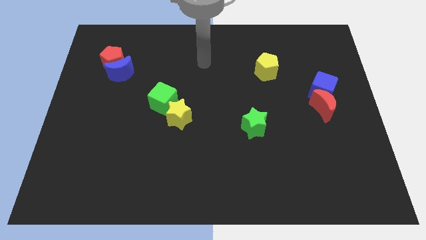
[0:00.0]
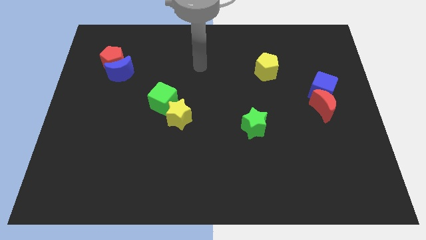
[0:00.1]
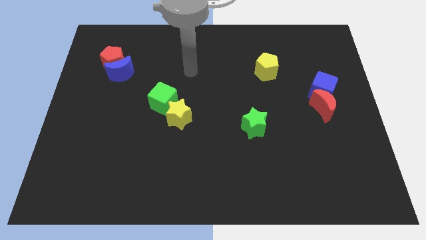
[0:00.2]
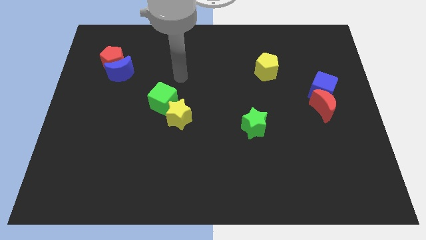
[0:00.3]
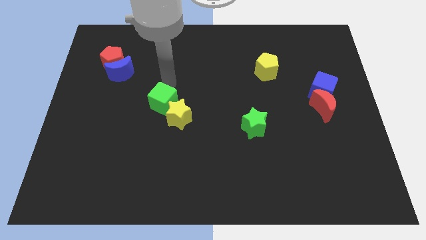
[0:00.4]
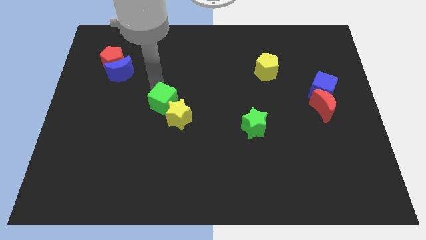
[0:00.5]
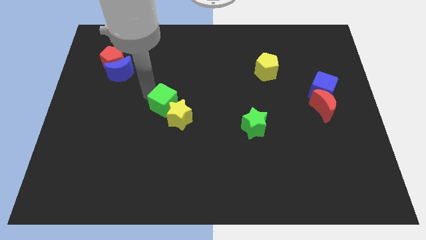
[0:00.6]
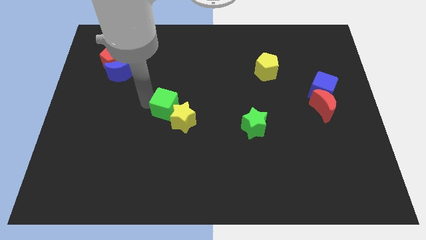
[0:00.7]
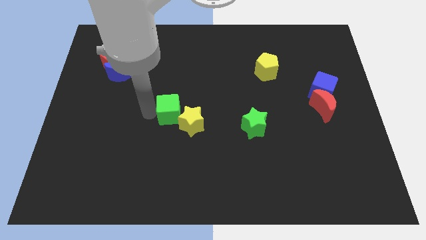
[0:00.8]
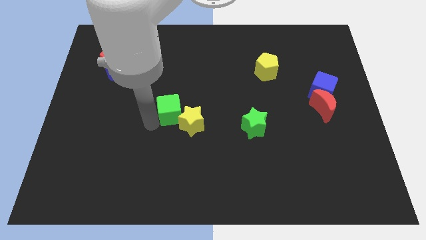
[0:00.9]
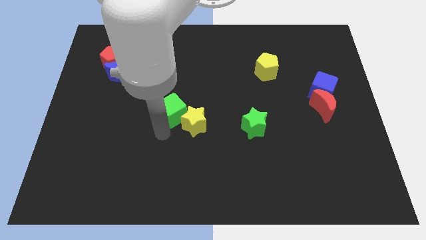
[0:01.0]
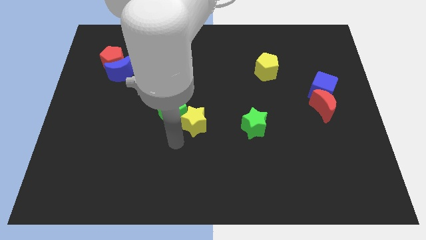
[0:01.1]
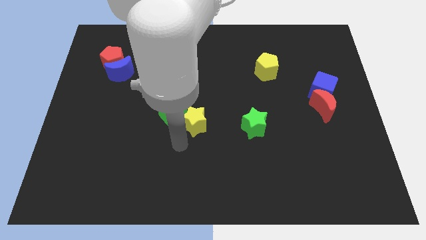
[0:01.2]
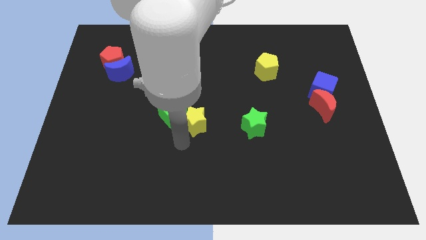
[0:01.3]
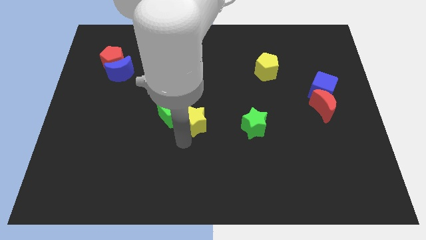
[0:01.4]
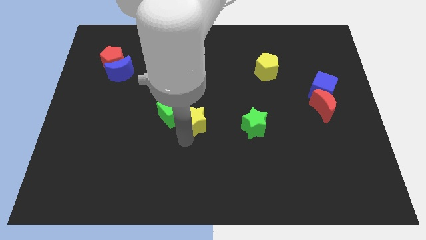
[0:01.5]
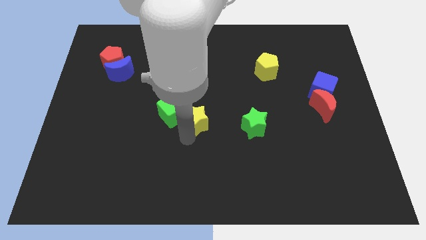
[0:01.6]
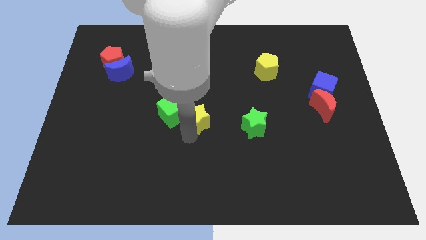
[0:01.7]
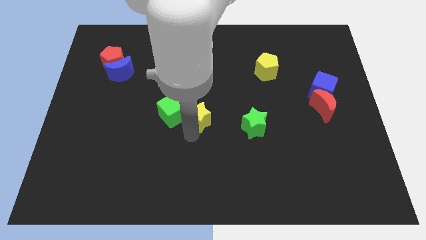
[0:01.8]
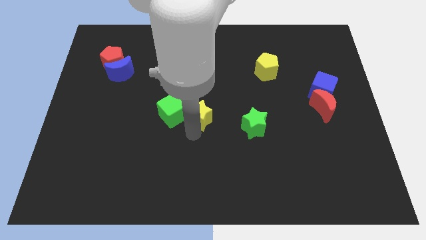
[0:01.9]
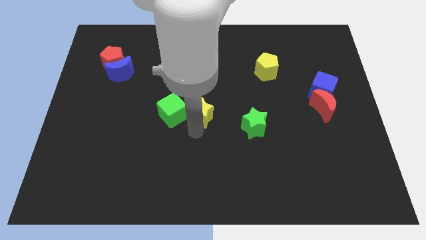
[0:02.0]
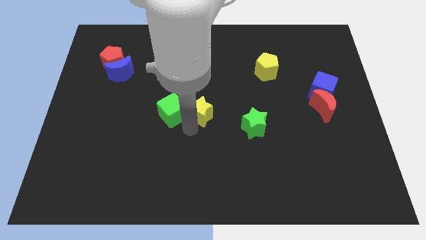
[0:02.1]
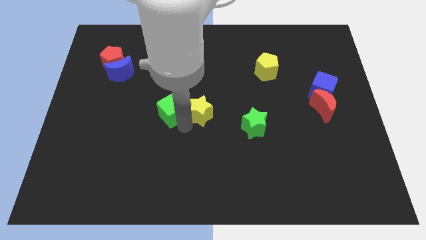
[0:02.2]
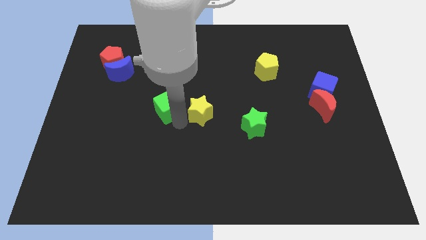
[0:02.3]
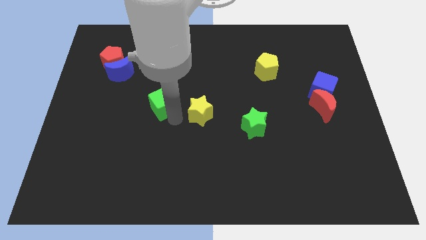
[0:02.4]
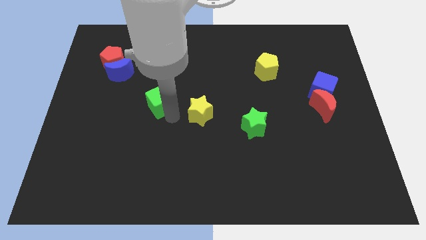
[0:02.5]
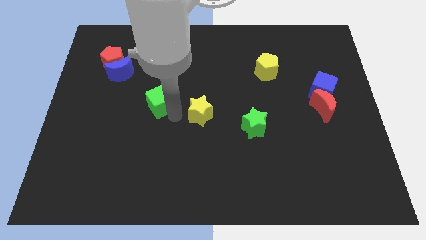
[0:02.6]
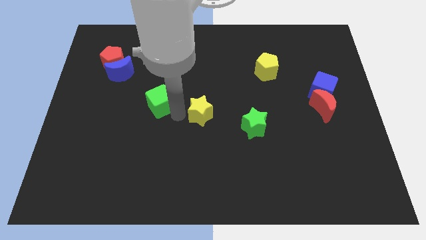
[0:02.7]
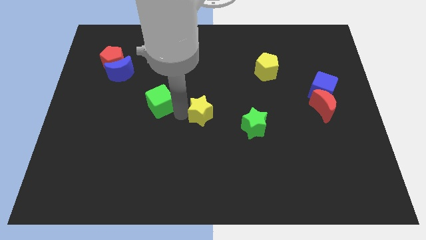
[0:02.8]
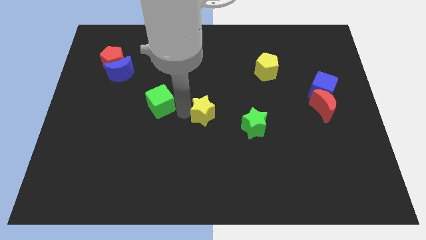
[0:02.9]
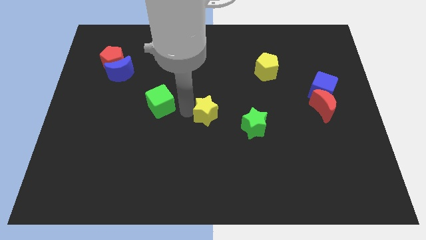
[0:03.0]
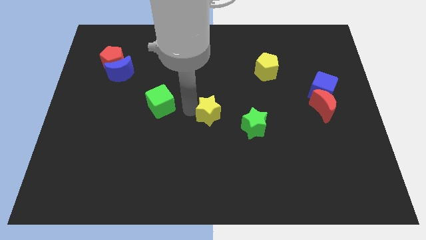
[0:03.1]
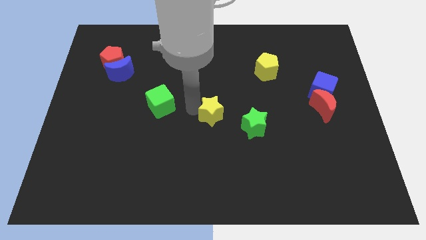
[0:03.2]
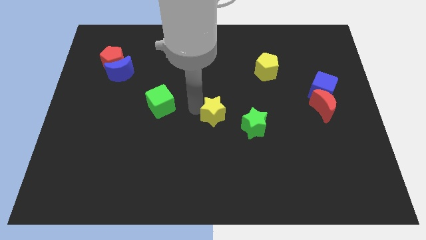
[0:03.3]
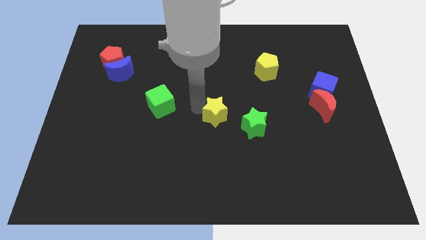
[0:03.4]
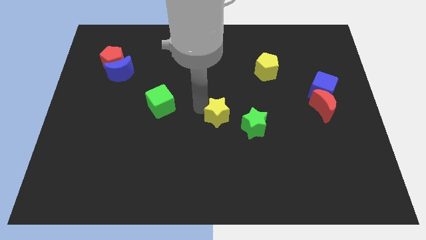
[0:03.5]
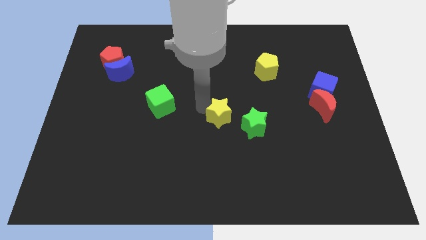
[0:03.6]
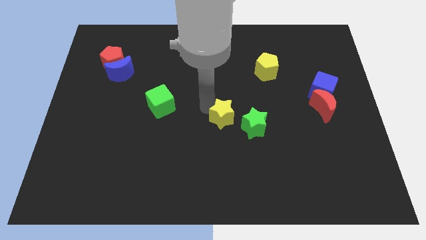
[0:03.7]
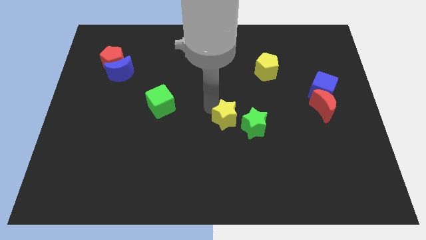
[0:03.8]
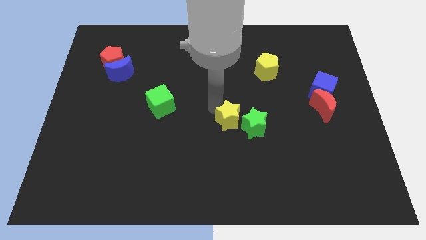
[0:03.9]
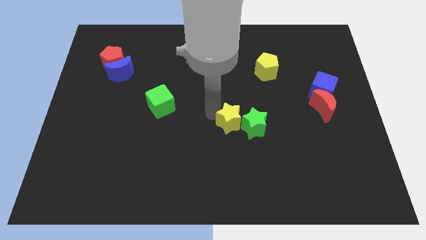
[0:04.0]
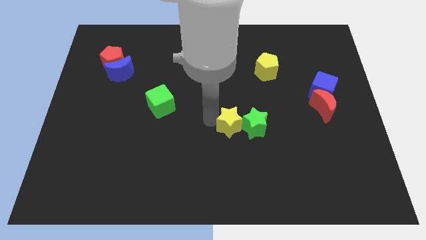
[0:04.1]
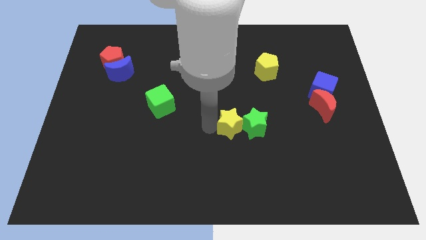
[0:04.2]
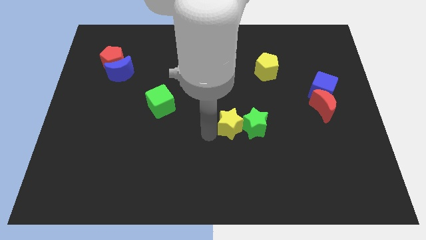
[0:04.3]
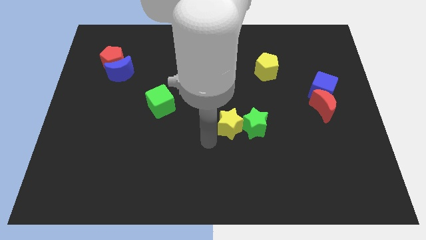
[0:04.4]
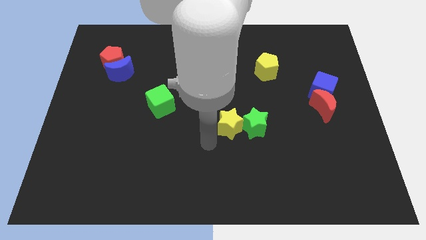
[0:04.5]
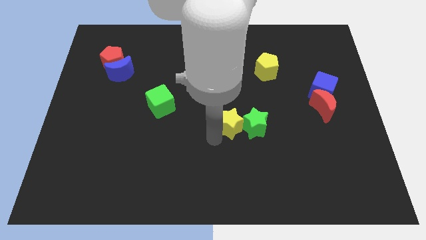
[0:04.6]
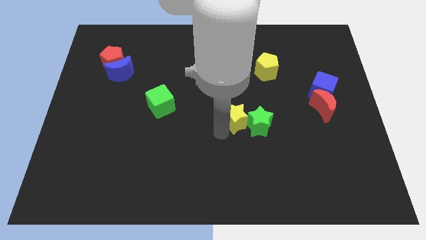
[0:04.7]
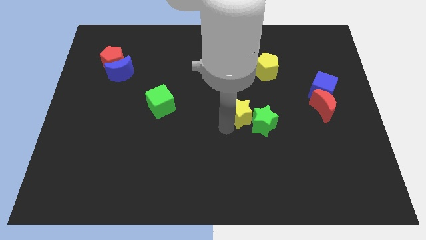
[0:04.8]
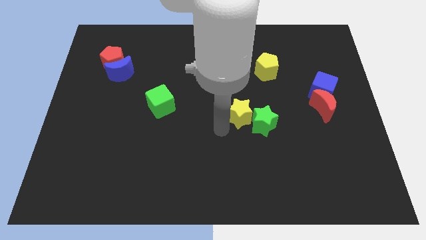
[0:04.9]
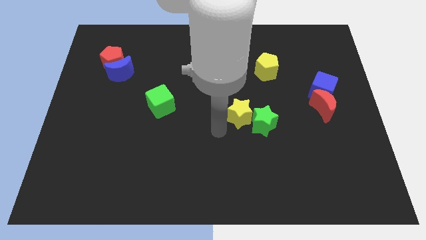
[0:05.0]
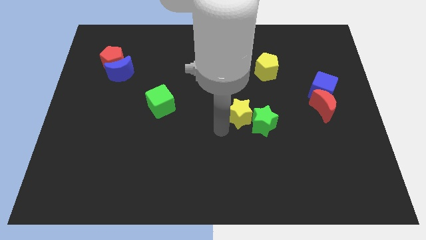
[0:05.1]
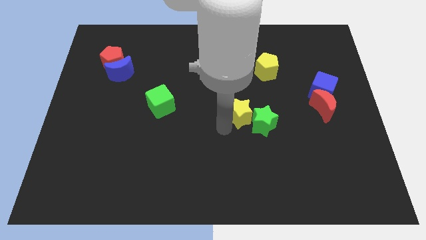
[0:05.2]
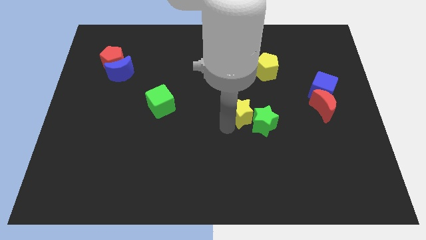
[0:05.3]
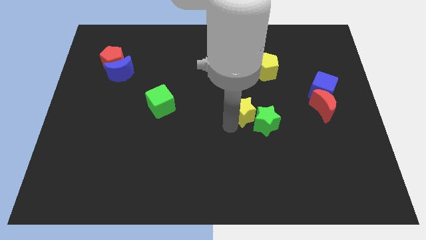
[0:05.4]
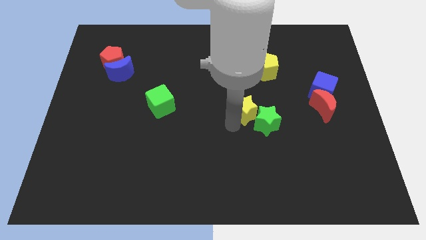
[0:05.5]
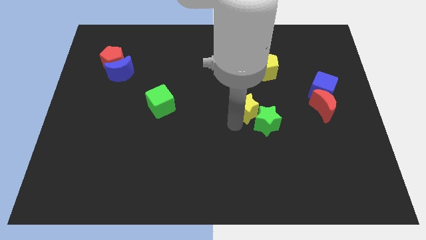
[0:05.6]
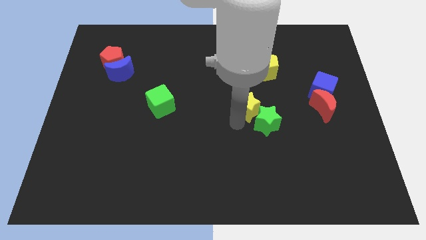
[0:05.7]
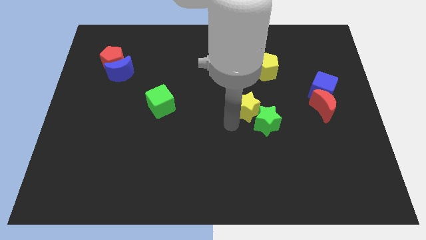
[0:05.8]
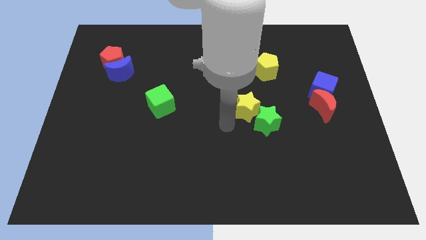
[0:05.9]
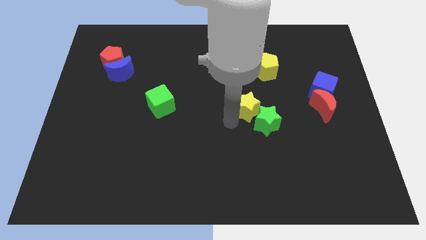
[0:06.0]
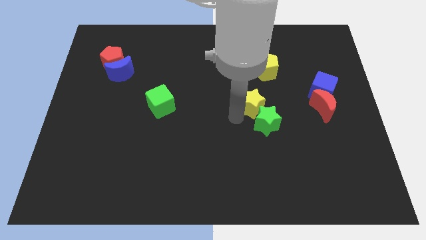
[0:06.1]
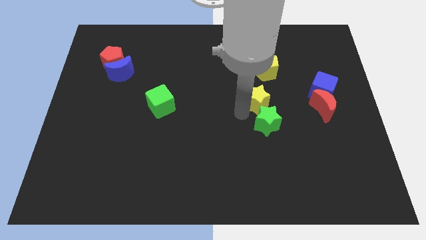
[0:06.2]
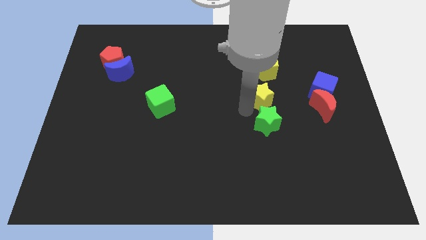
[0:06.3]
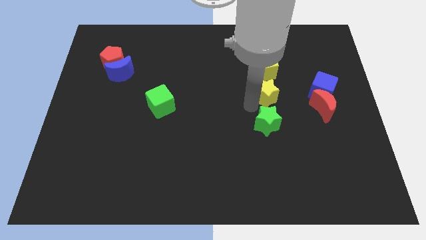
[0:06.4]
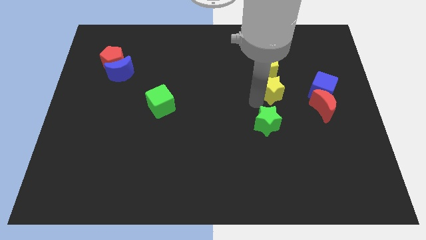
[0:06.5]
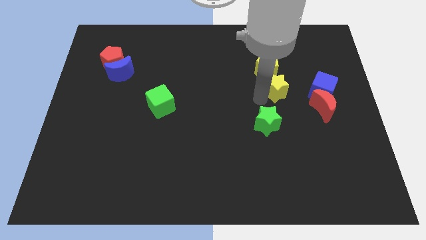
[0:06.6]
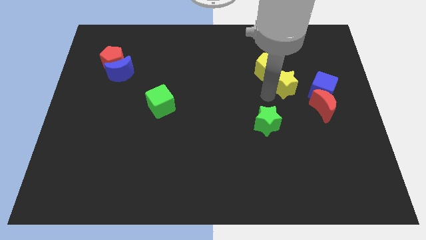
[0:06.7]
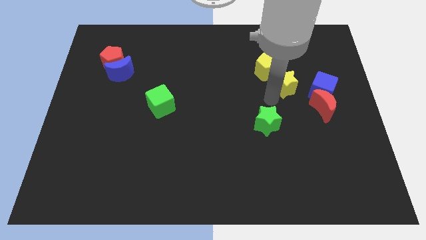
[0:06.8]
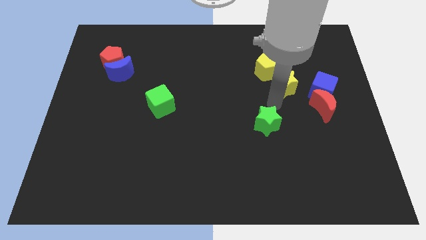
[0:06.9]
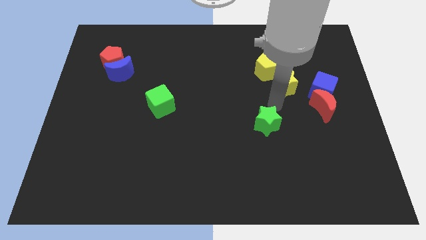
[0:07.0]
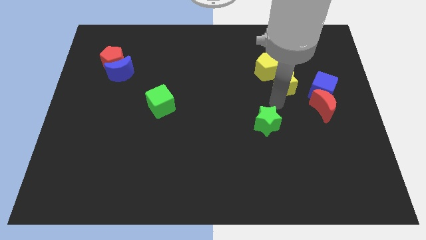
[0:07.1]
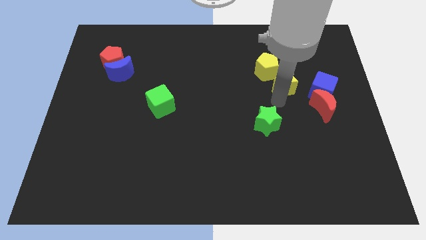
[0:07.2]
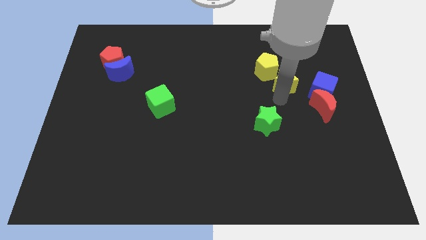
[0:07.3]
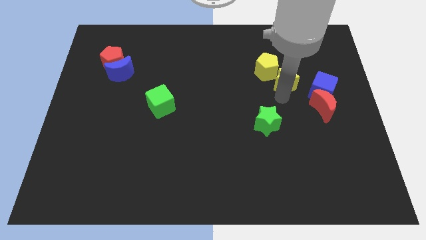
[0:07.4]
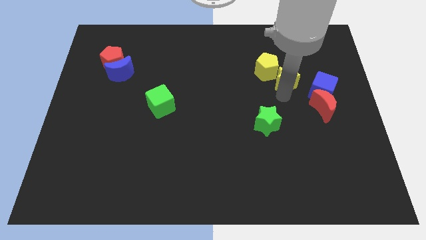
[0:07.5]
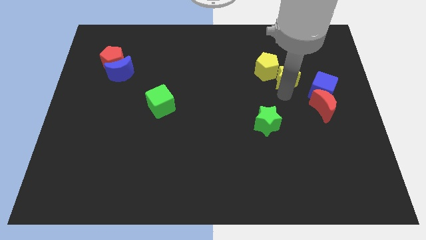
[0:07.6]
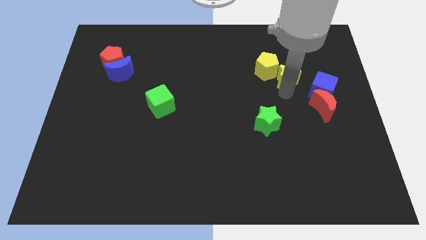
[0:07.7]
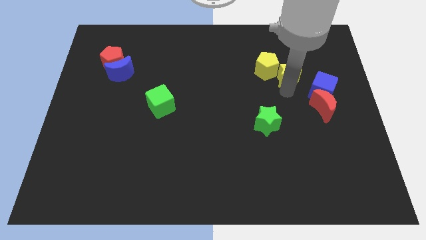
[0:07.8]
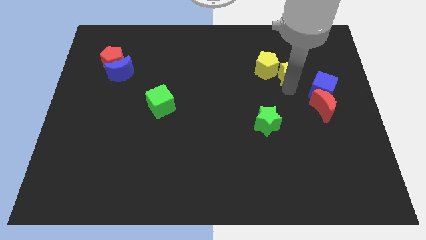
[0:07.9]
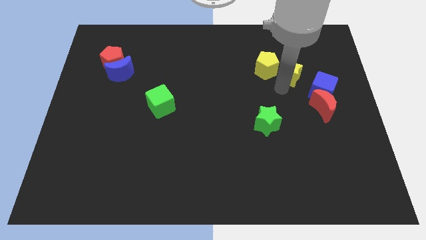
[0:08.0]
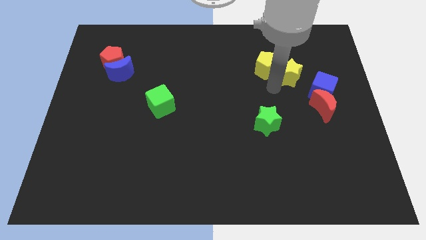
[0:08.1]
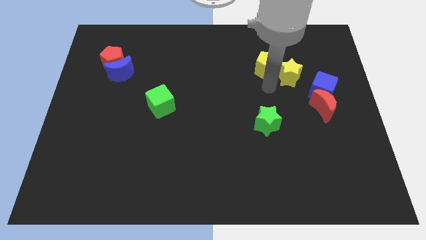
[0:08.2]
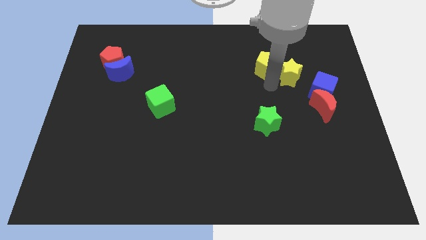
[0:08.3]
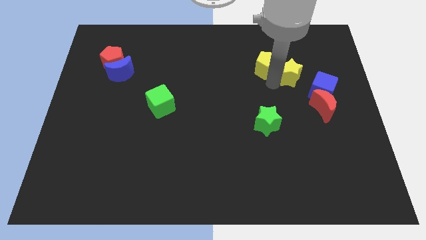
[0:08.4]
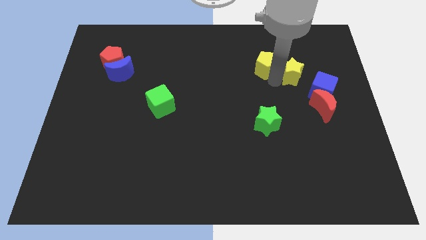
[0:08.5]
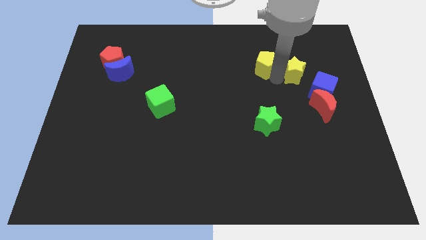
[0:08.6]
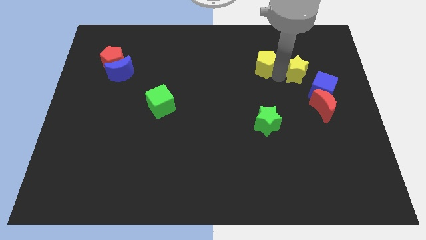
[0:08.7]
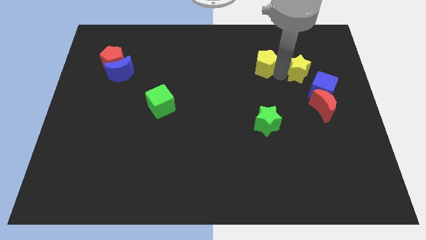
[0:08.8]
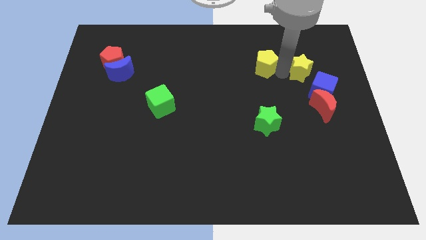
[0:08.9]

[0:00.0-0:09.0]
move the yellow star to the top side of the blue cube
